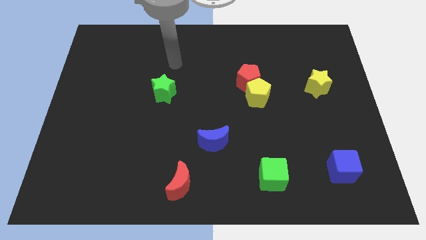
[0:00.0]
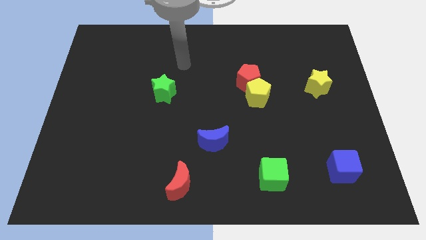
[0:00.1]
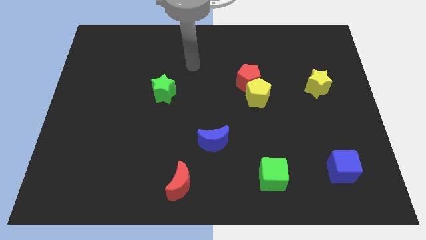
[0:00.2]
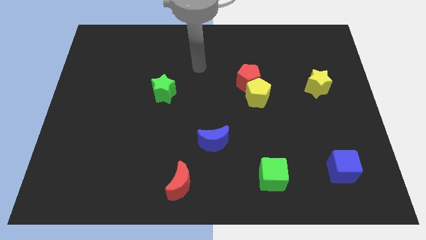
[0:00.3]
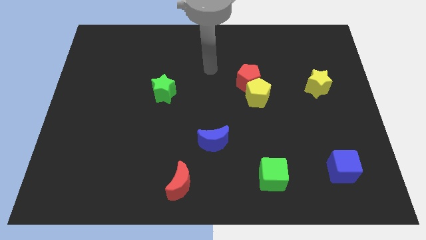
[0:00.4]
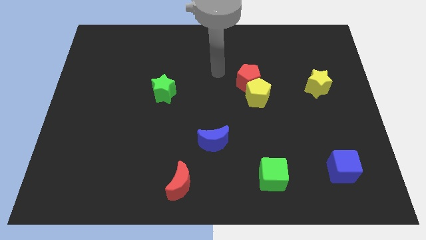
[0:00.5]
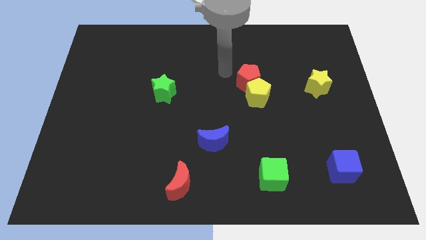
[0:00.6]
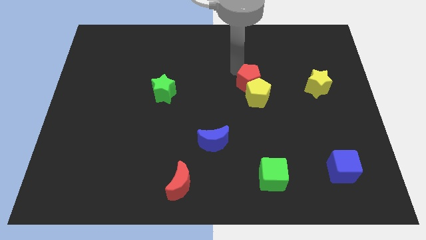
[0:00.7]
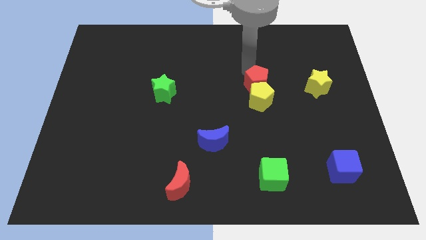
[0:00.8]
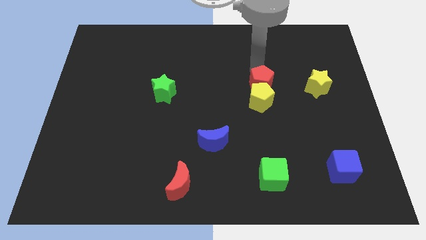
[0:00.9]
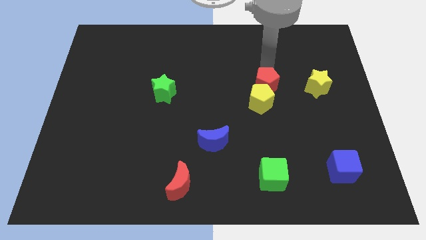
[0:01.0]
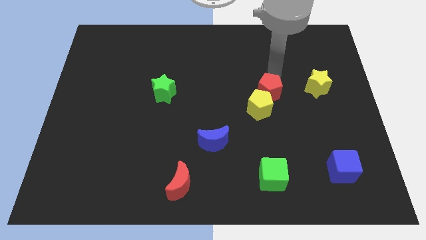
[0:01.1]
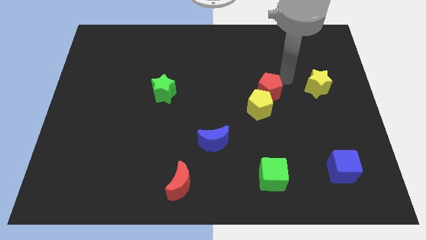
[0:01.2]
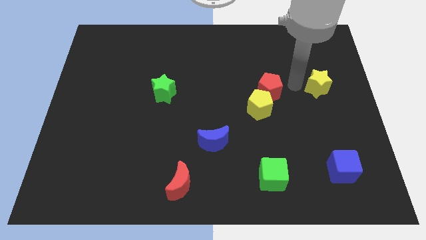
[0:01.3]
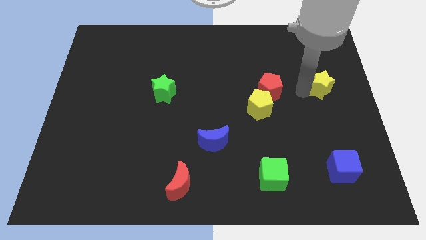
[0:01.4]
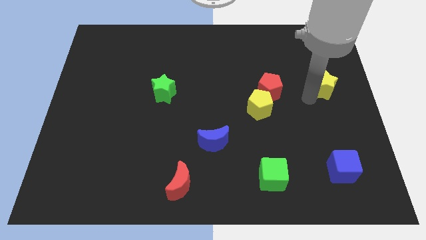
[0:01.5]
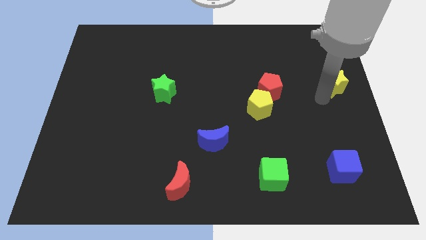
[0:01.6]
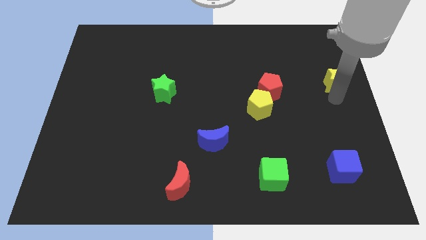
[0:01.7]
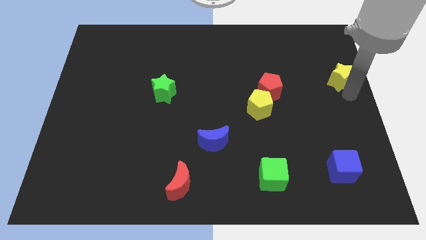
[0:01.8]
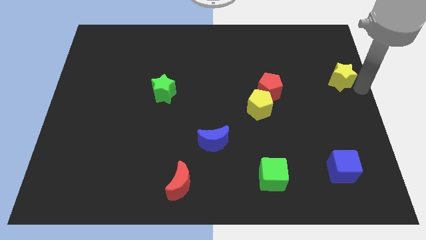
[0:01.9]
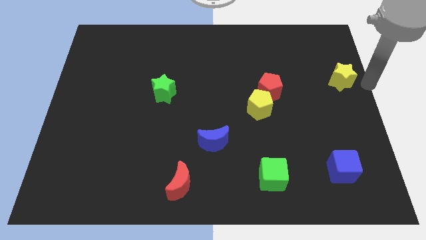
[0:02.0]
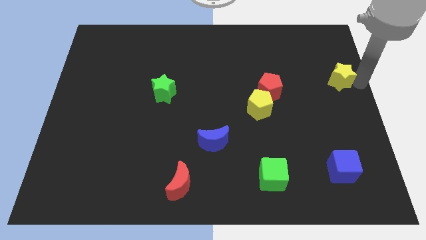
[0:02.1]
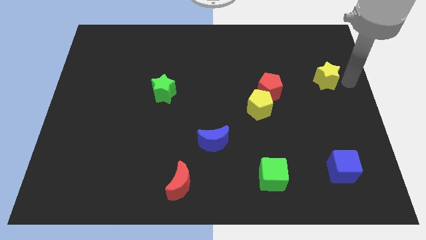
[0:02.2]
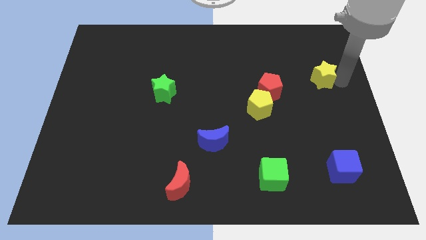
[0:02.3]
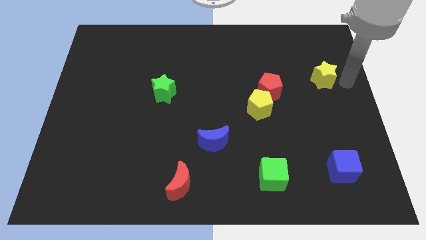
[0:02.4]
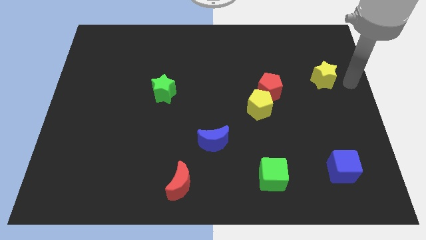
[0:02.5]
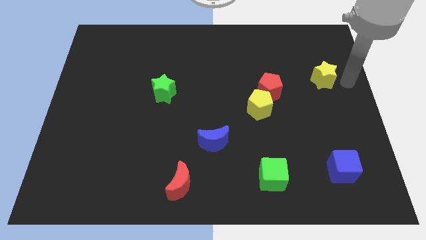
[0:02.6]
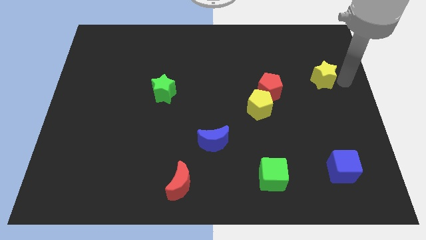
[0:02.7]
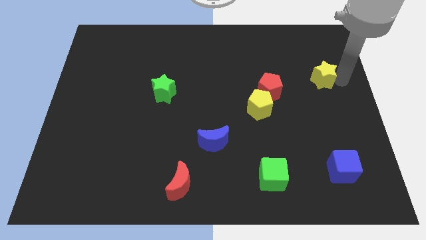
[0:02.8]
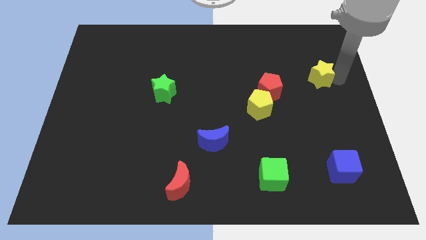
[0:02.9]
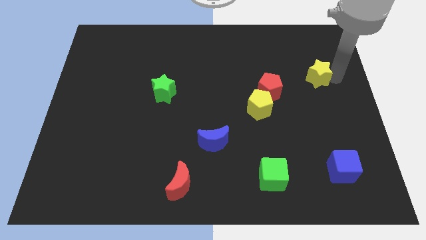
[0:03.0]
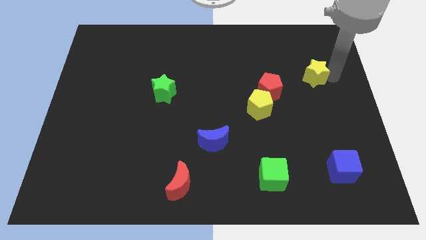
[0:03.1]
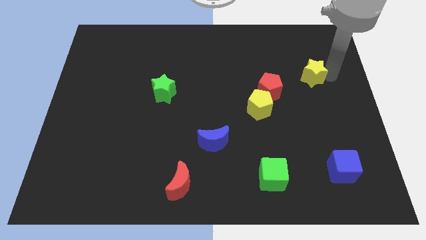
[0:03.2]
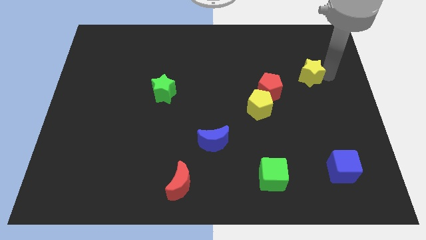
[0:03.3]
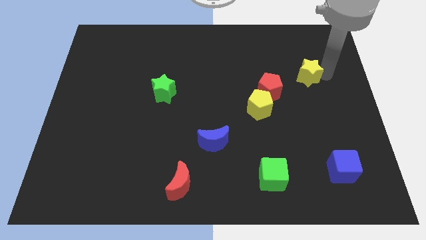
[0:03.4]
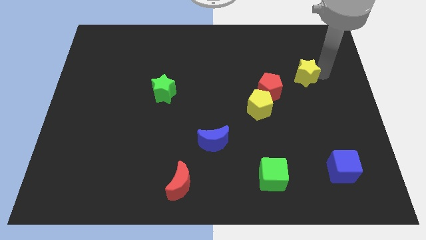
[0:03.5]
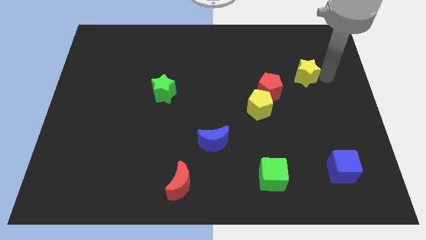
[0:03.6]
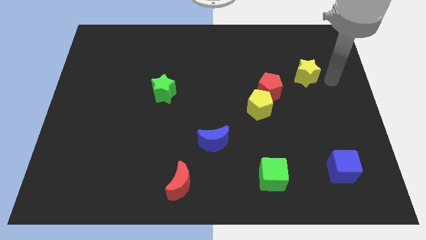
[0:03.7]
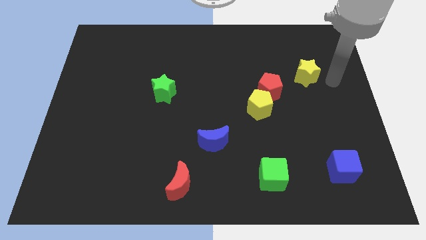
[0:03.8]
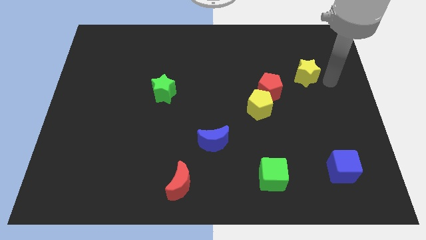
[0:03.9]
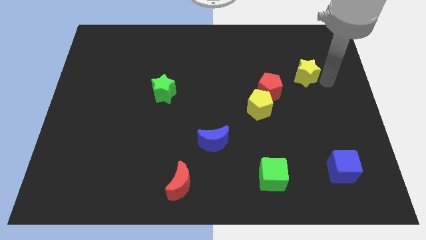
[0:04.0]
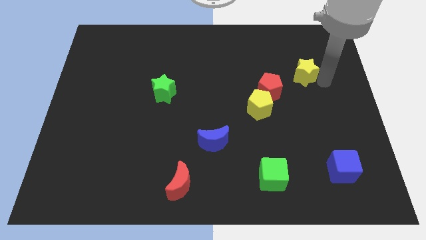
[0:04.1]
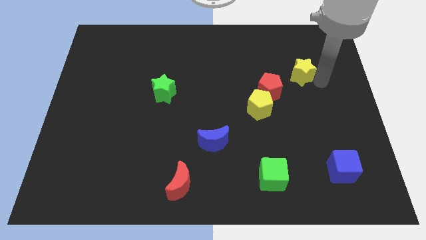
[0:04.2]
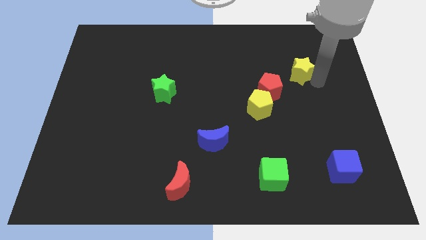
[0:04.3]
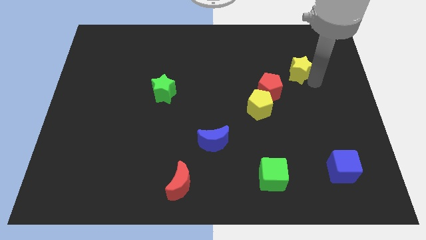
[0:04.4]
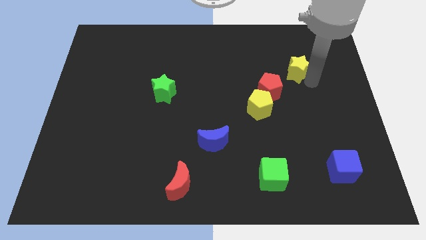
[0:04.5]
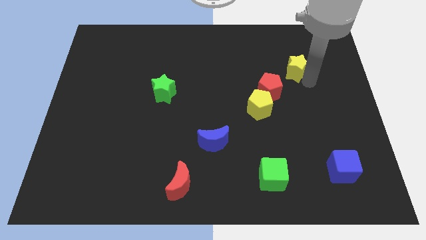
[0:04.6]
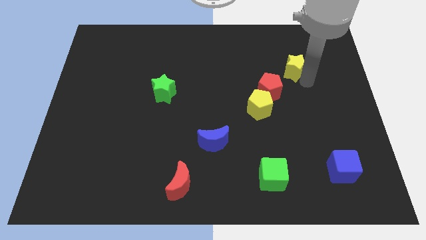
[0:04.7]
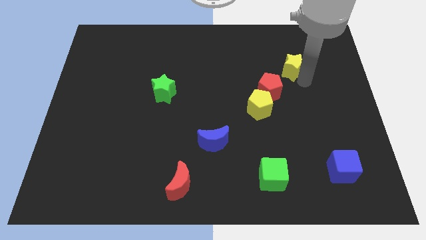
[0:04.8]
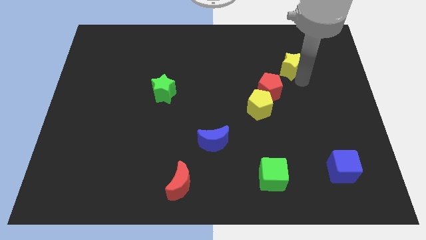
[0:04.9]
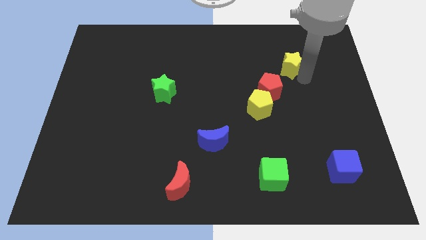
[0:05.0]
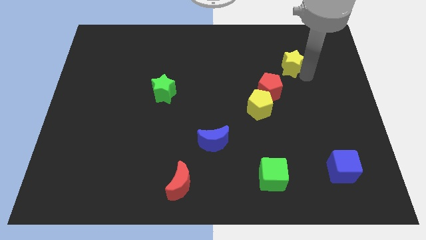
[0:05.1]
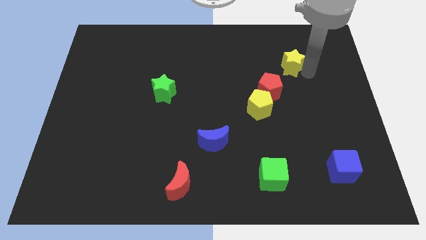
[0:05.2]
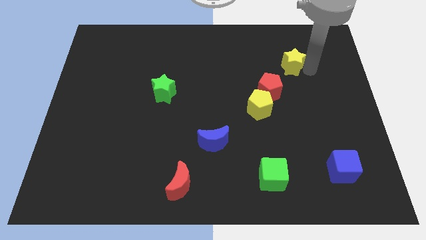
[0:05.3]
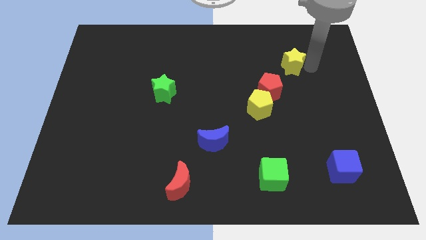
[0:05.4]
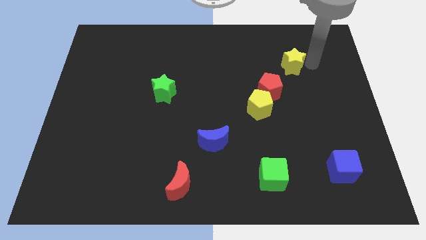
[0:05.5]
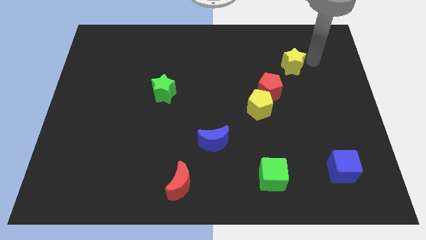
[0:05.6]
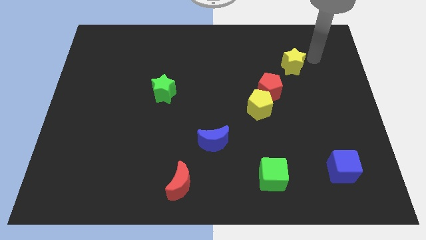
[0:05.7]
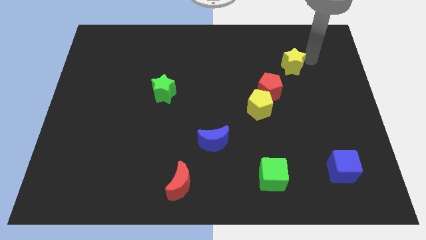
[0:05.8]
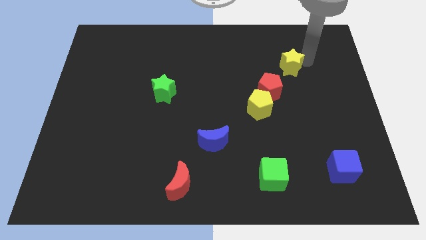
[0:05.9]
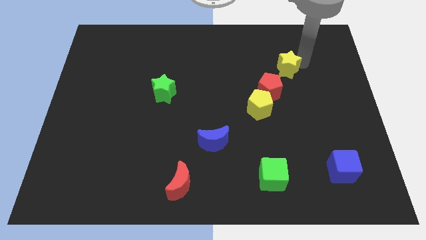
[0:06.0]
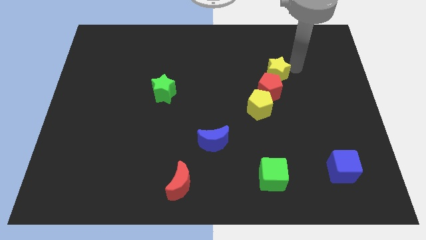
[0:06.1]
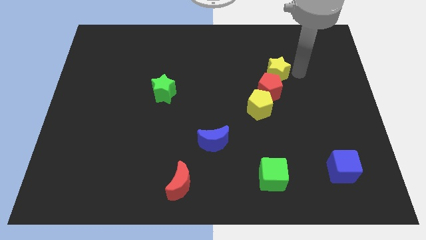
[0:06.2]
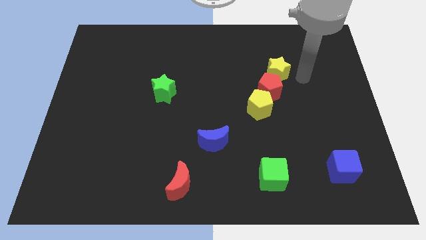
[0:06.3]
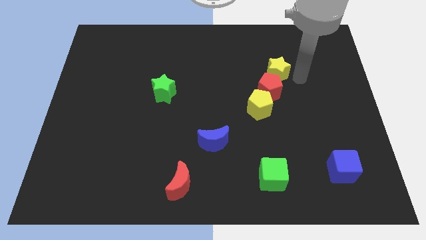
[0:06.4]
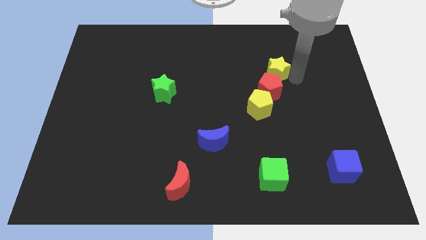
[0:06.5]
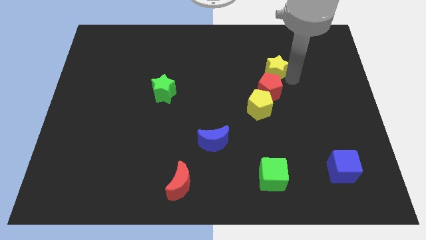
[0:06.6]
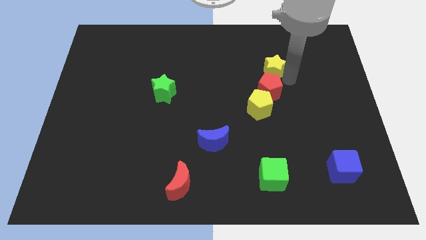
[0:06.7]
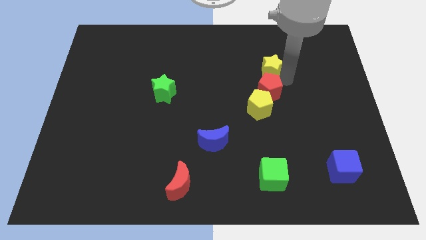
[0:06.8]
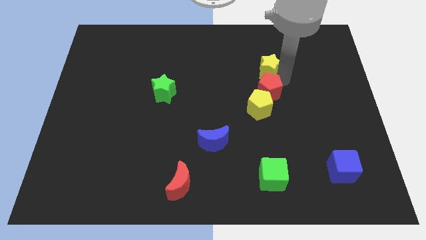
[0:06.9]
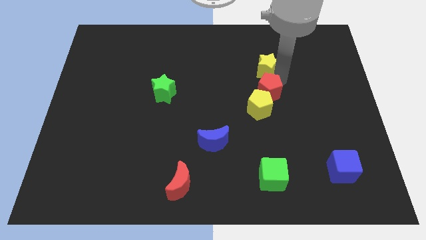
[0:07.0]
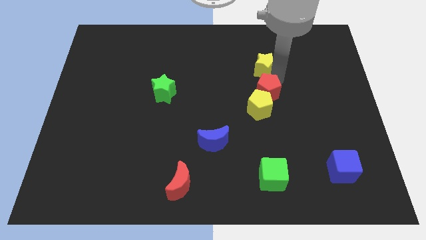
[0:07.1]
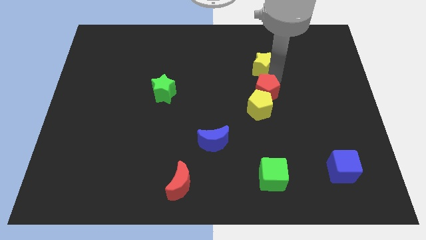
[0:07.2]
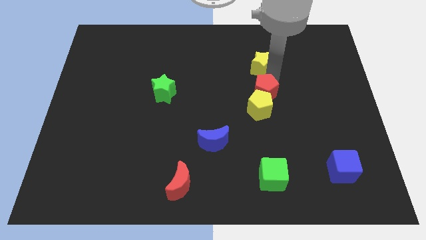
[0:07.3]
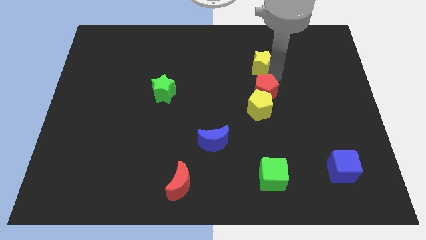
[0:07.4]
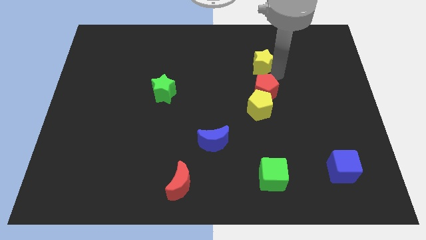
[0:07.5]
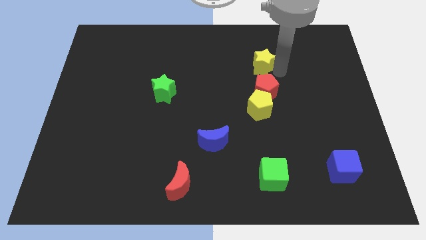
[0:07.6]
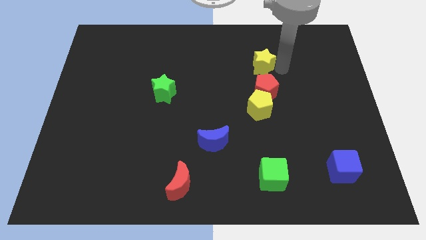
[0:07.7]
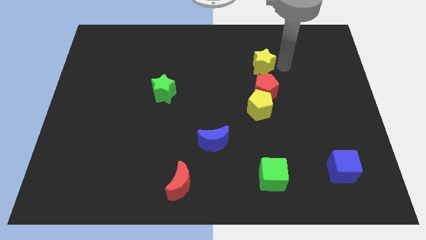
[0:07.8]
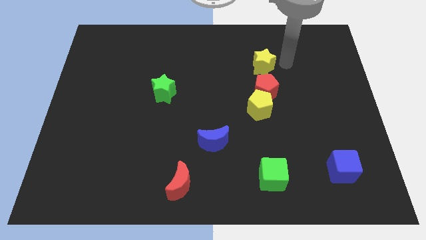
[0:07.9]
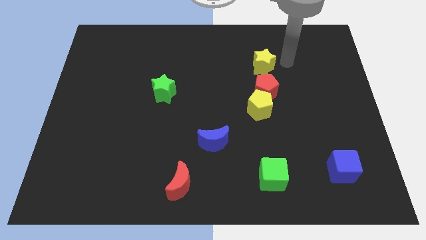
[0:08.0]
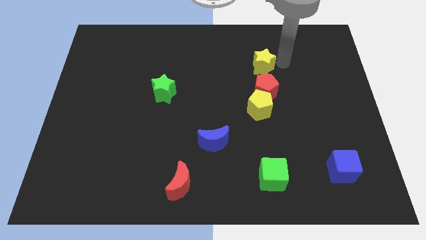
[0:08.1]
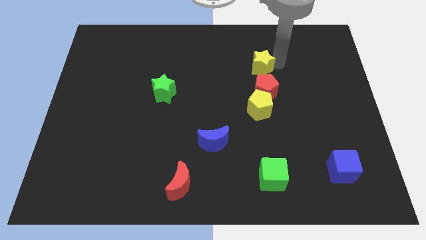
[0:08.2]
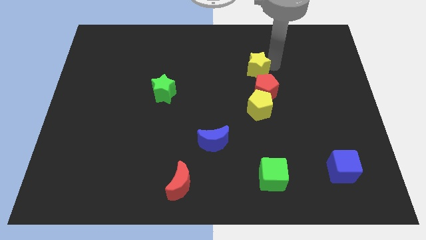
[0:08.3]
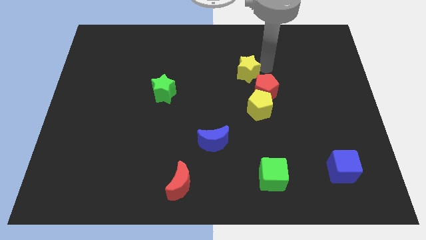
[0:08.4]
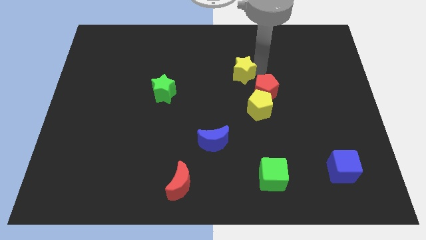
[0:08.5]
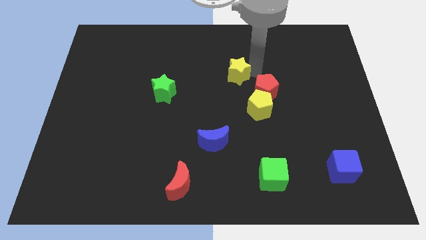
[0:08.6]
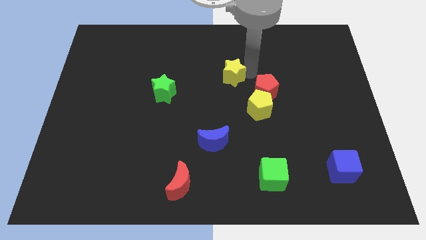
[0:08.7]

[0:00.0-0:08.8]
move the yellow star left
